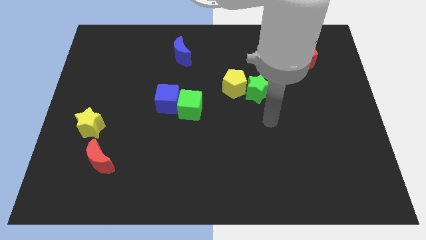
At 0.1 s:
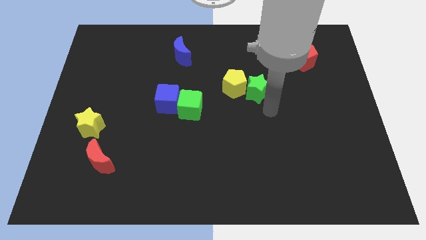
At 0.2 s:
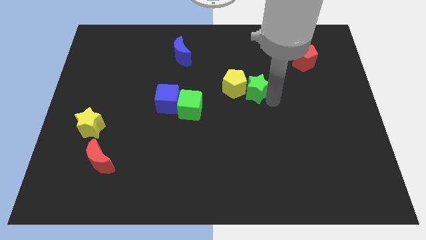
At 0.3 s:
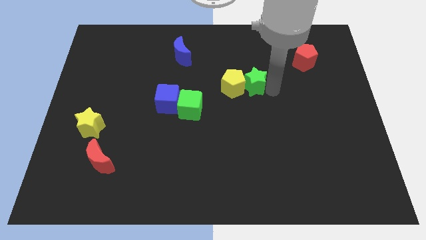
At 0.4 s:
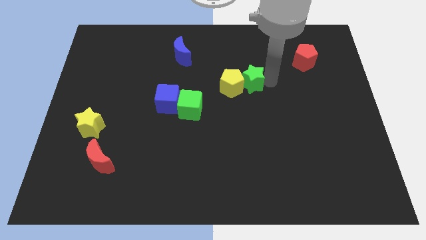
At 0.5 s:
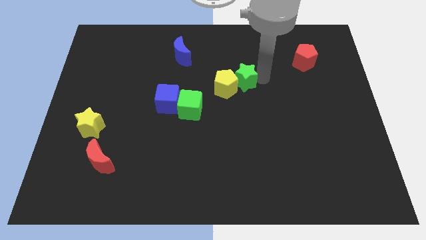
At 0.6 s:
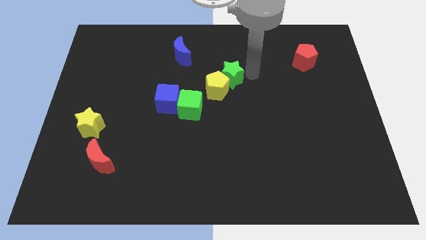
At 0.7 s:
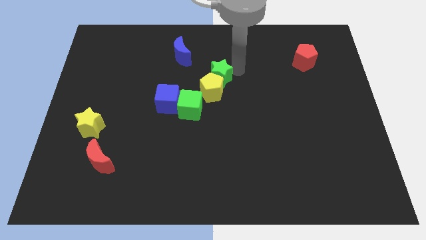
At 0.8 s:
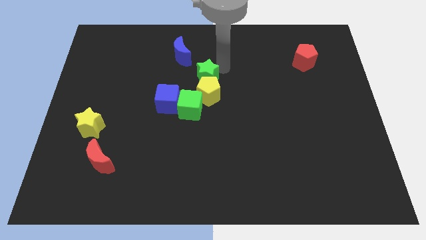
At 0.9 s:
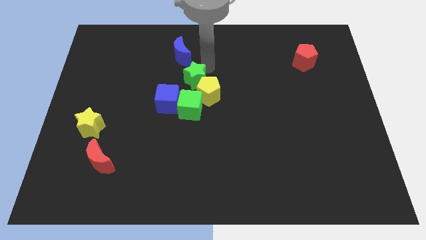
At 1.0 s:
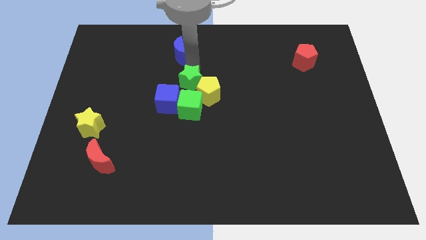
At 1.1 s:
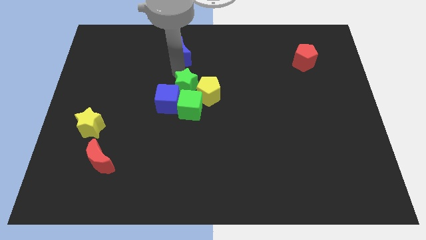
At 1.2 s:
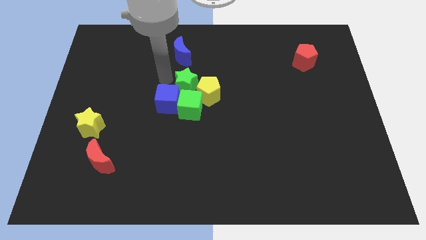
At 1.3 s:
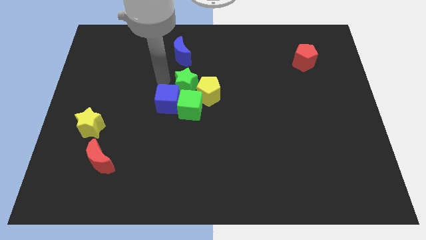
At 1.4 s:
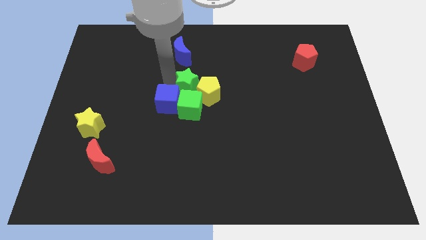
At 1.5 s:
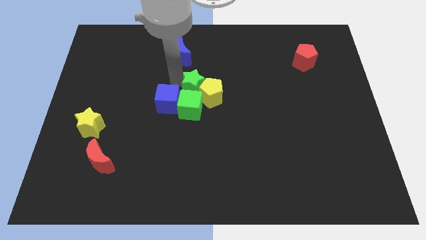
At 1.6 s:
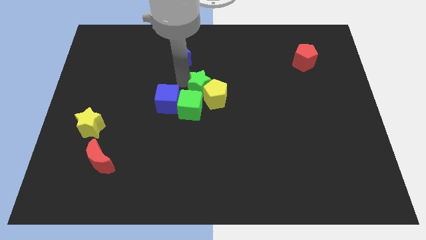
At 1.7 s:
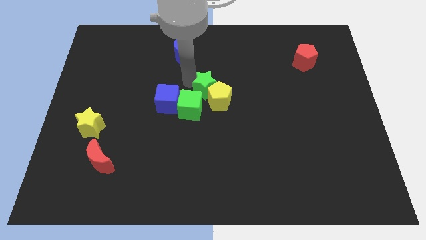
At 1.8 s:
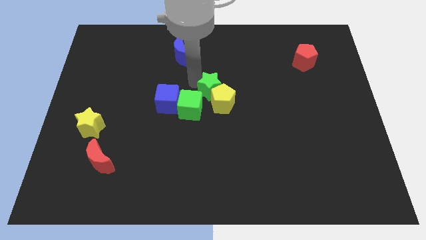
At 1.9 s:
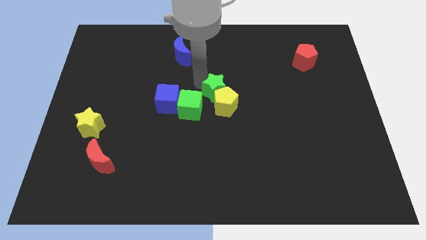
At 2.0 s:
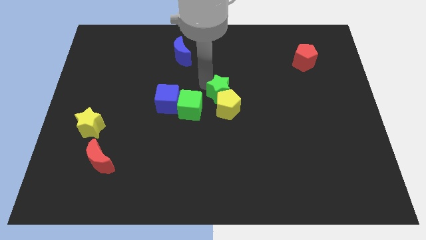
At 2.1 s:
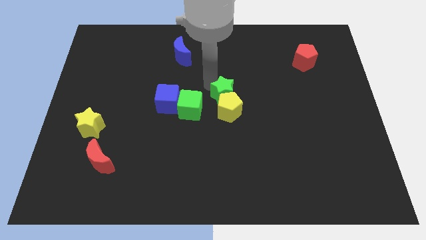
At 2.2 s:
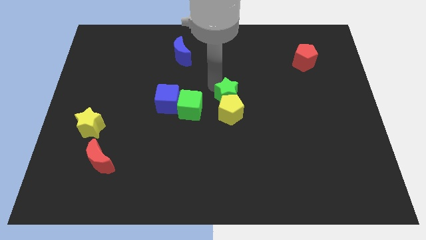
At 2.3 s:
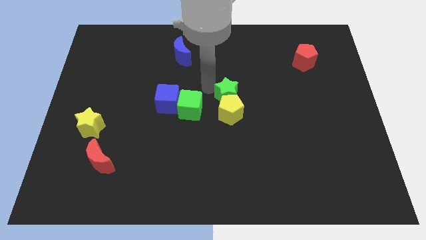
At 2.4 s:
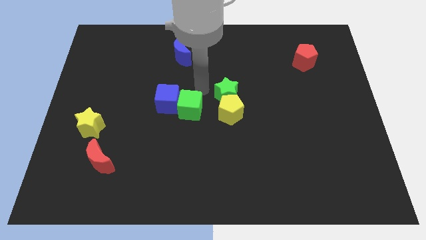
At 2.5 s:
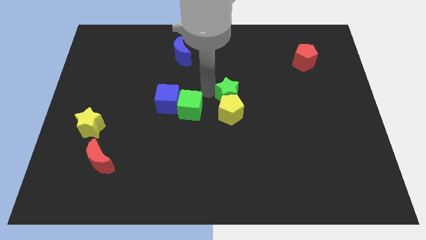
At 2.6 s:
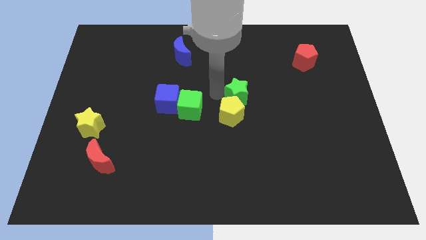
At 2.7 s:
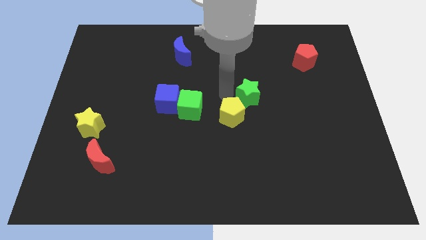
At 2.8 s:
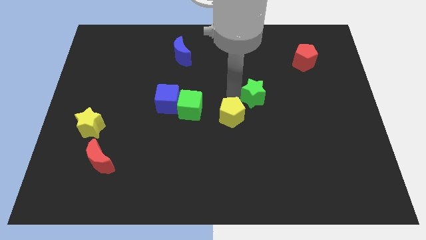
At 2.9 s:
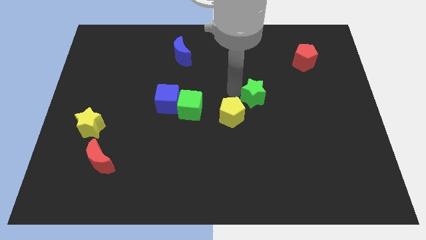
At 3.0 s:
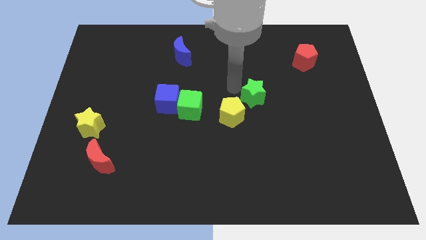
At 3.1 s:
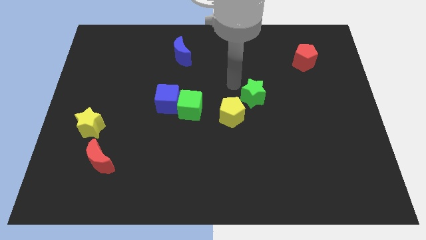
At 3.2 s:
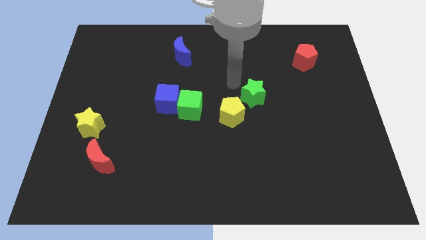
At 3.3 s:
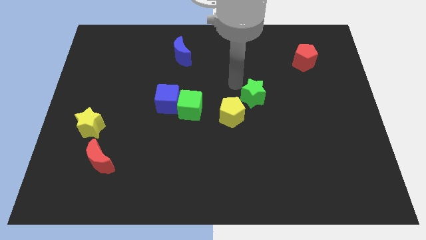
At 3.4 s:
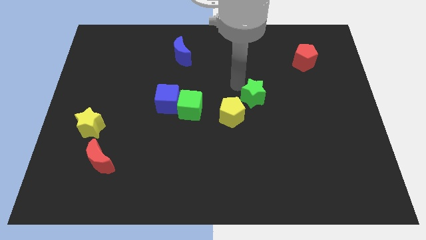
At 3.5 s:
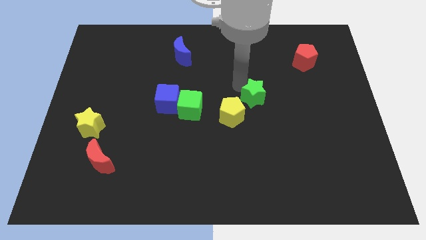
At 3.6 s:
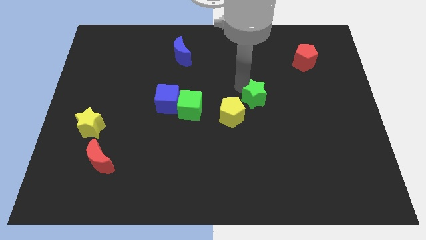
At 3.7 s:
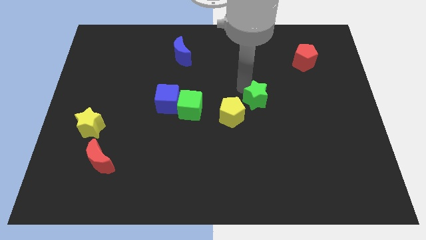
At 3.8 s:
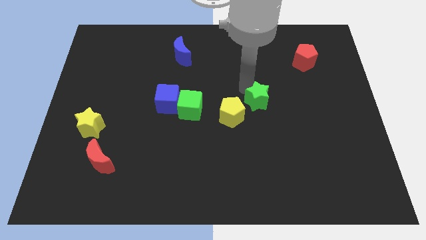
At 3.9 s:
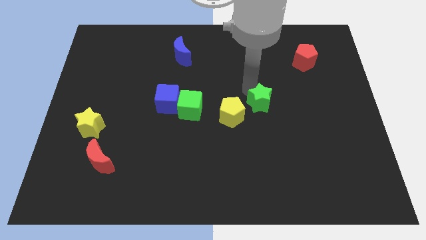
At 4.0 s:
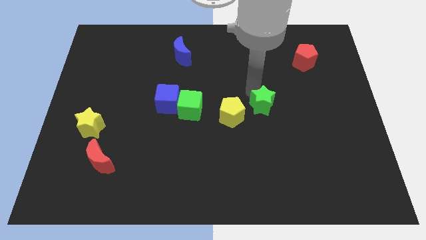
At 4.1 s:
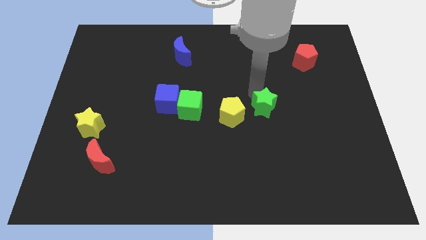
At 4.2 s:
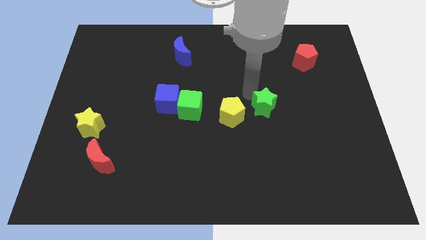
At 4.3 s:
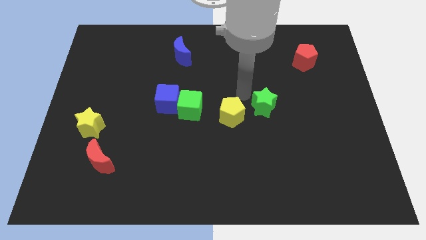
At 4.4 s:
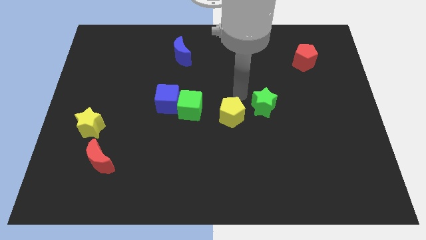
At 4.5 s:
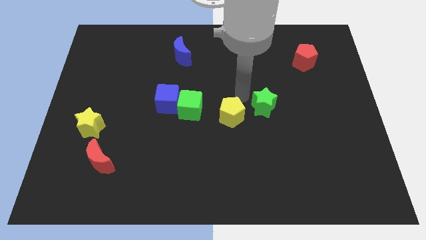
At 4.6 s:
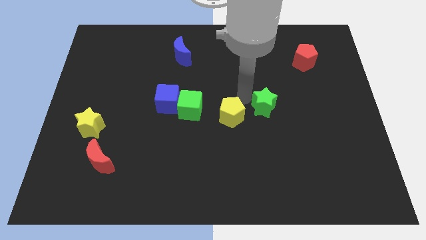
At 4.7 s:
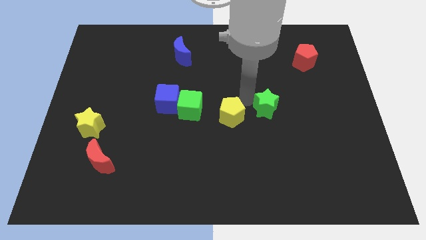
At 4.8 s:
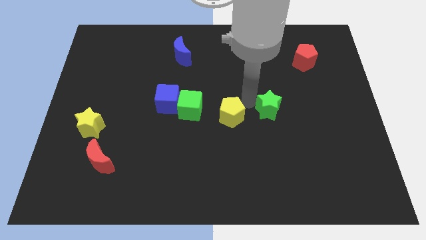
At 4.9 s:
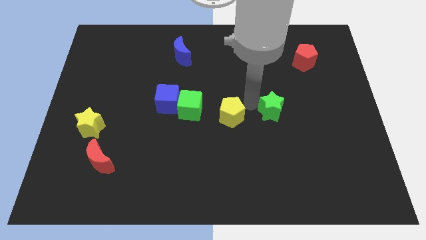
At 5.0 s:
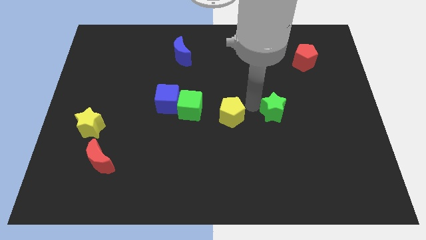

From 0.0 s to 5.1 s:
slide the green star somewhat downwards and then to the right

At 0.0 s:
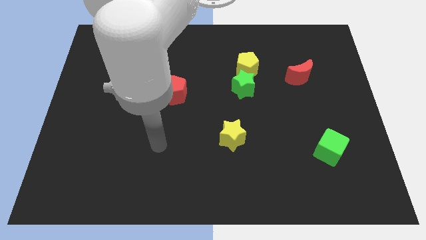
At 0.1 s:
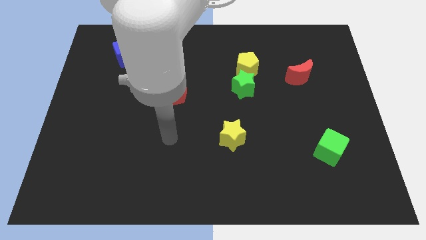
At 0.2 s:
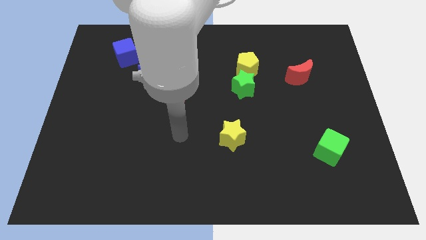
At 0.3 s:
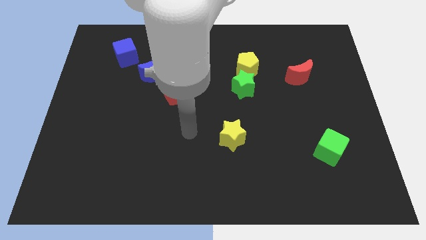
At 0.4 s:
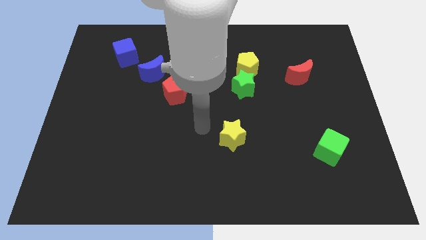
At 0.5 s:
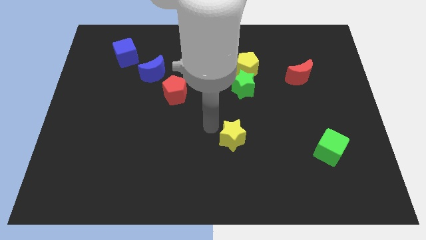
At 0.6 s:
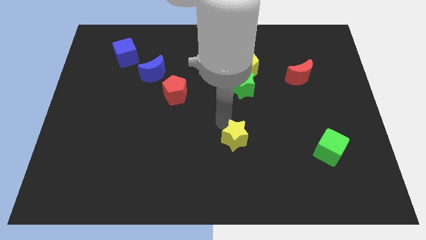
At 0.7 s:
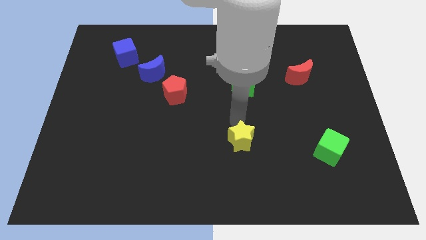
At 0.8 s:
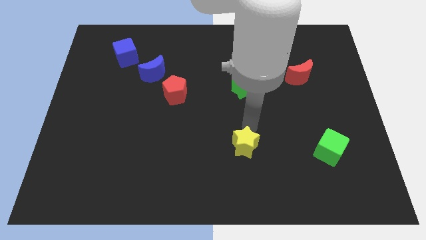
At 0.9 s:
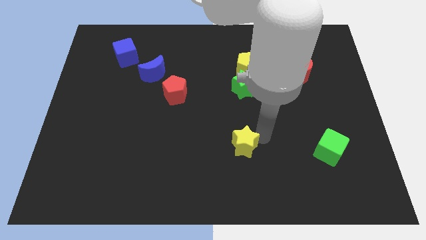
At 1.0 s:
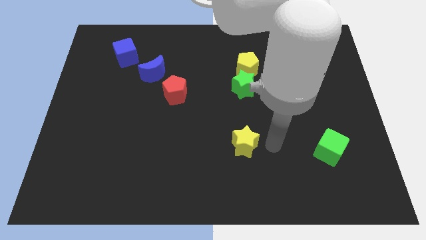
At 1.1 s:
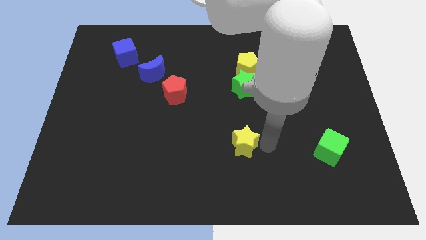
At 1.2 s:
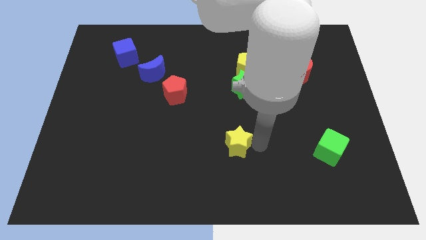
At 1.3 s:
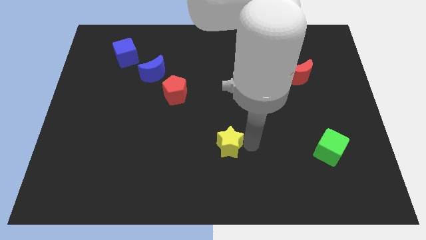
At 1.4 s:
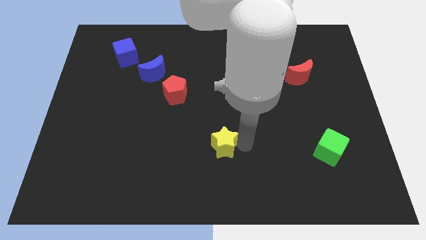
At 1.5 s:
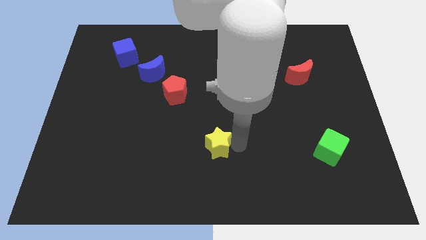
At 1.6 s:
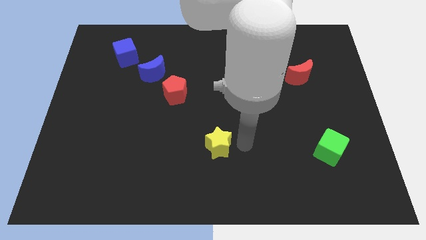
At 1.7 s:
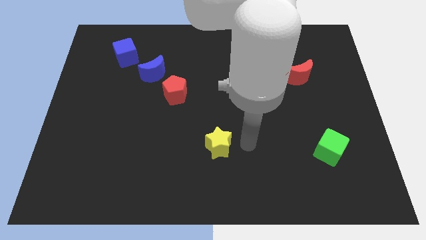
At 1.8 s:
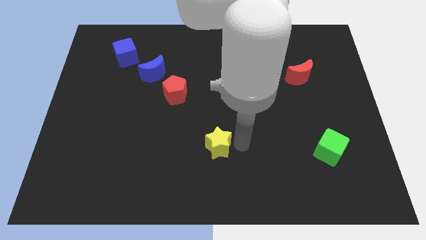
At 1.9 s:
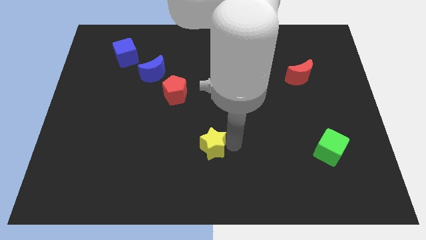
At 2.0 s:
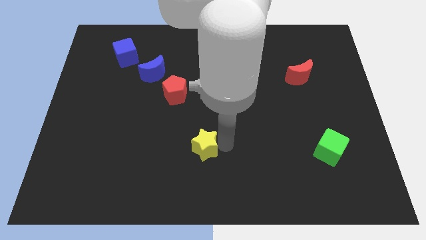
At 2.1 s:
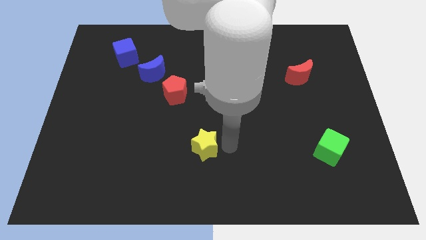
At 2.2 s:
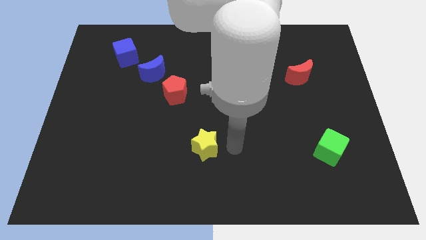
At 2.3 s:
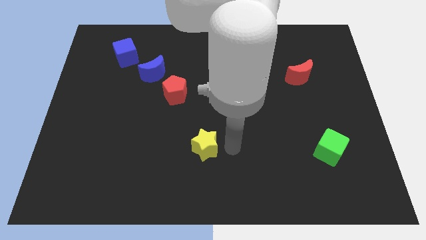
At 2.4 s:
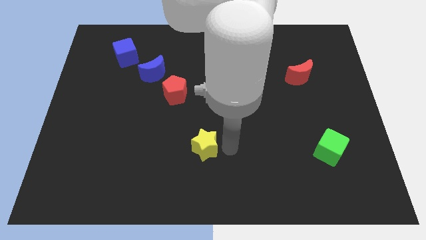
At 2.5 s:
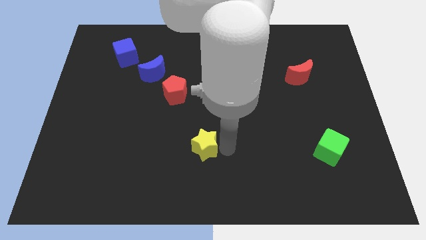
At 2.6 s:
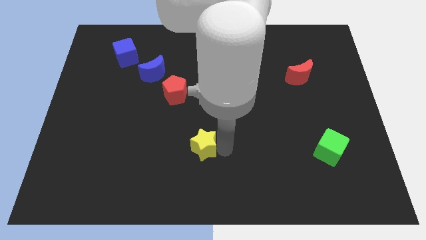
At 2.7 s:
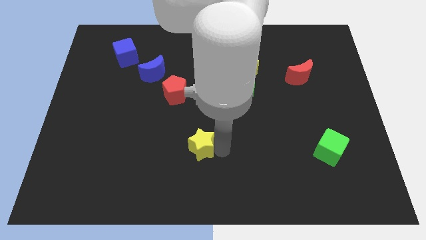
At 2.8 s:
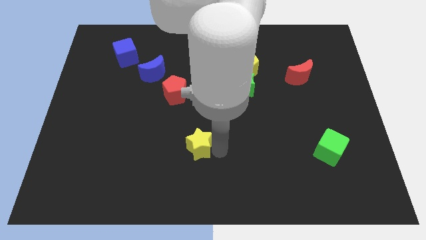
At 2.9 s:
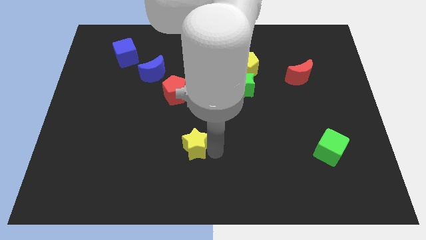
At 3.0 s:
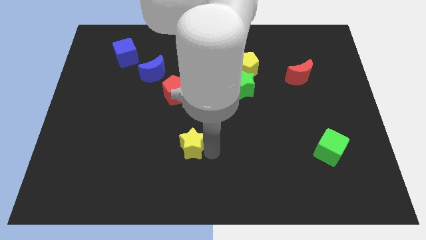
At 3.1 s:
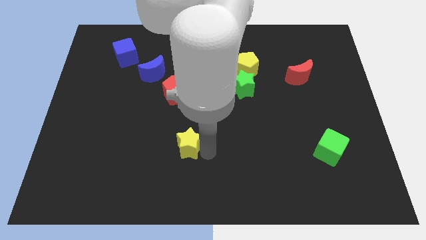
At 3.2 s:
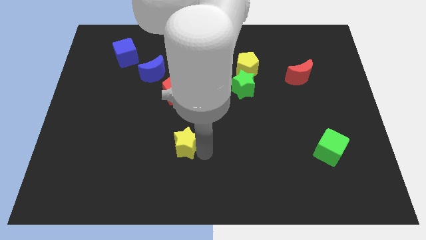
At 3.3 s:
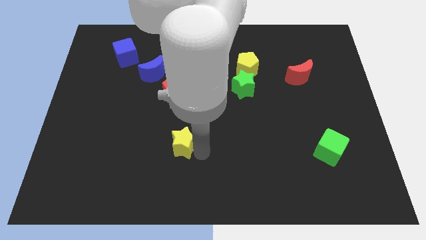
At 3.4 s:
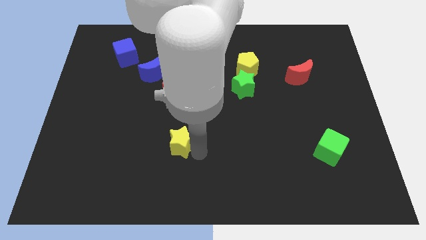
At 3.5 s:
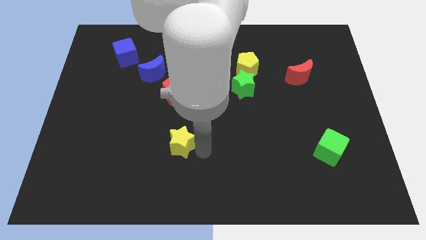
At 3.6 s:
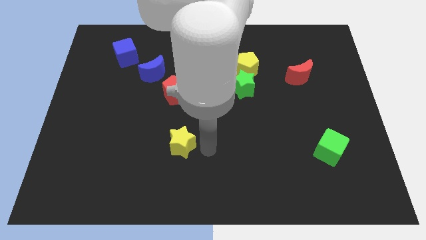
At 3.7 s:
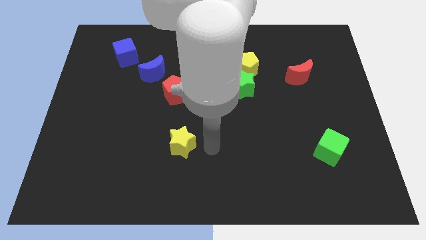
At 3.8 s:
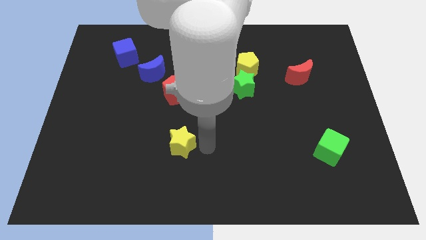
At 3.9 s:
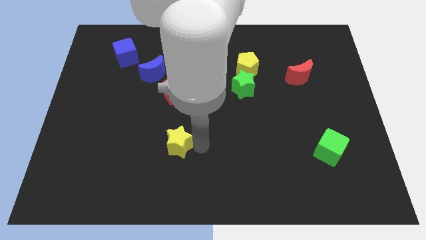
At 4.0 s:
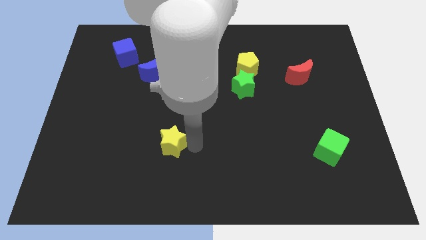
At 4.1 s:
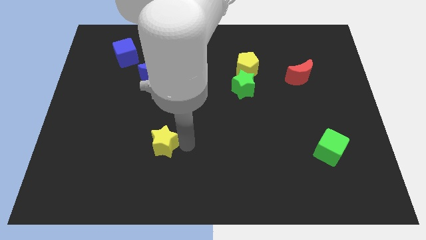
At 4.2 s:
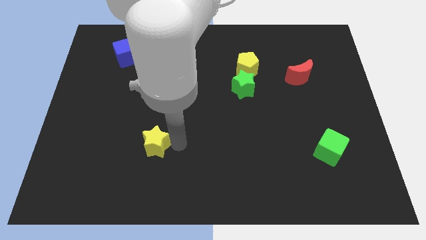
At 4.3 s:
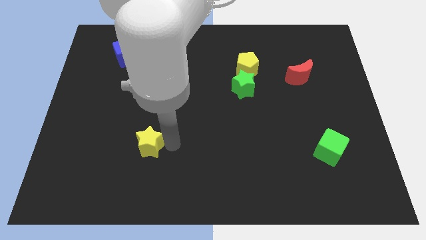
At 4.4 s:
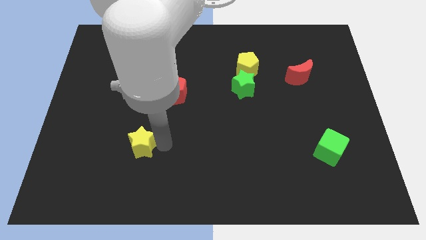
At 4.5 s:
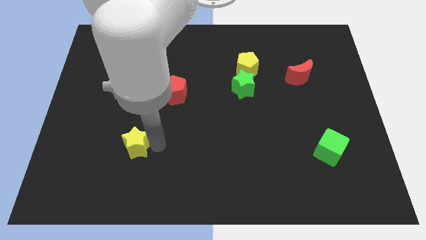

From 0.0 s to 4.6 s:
move the yellow star left
